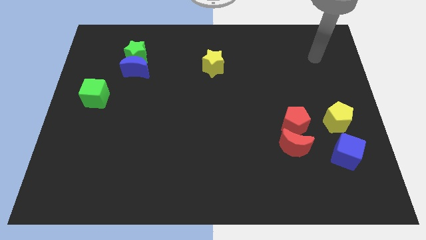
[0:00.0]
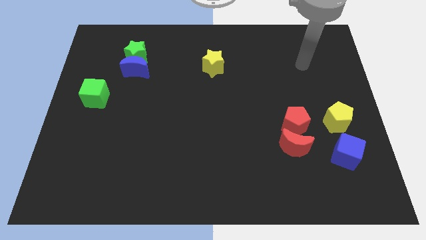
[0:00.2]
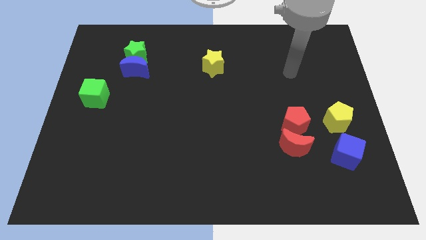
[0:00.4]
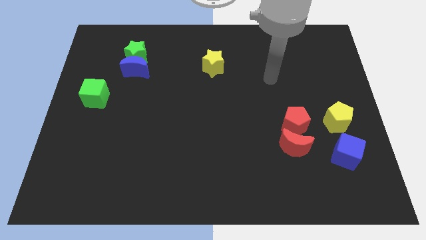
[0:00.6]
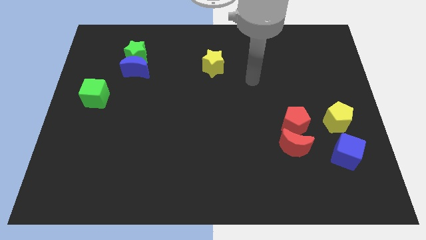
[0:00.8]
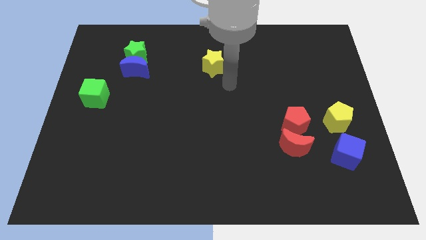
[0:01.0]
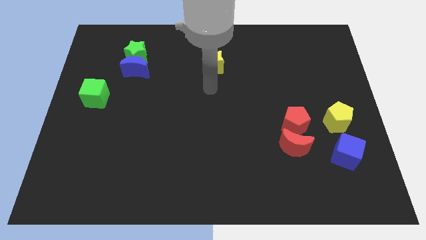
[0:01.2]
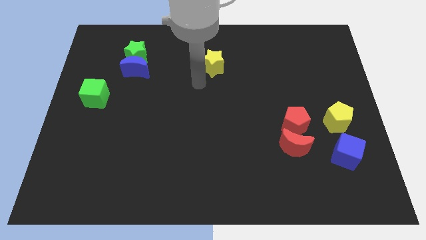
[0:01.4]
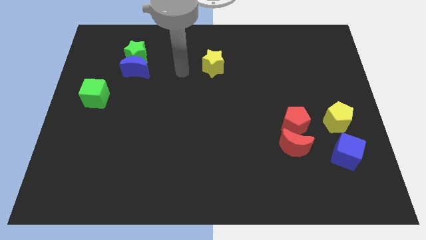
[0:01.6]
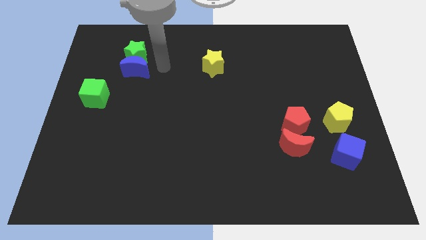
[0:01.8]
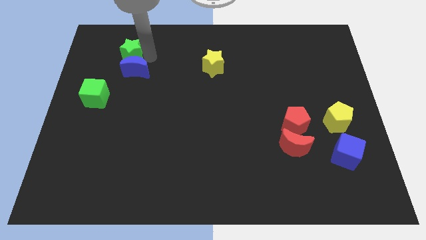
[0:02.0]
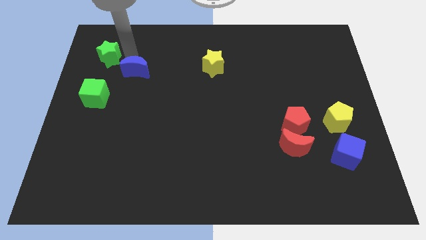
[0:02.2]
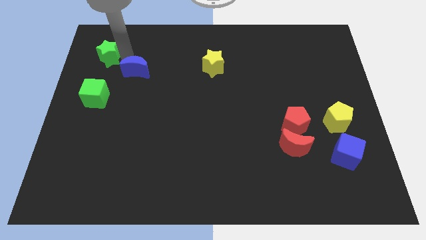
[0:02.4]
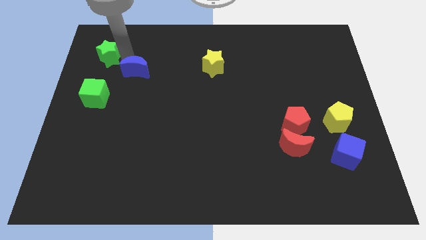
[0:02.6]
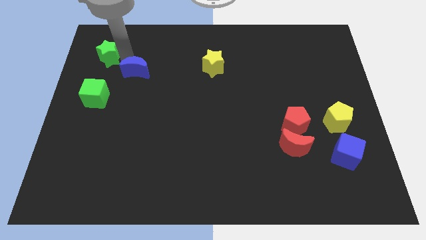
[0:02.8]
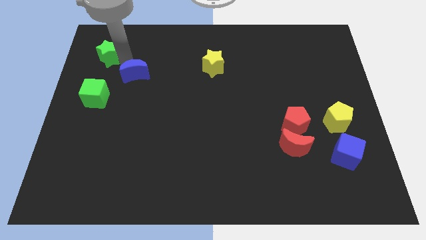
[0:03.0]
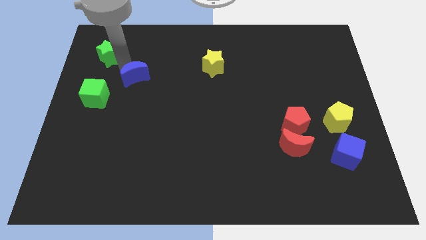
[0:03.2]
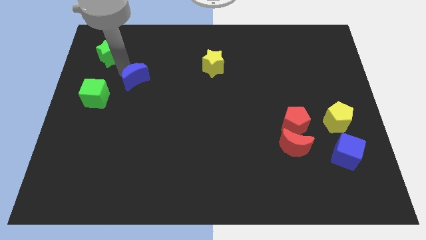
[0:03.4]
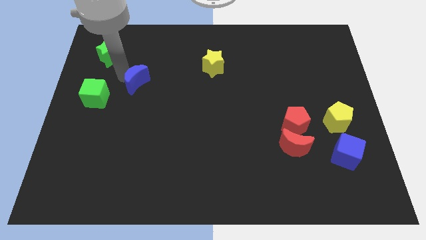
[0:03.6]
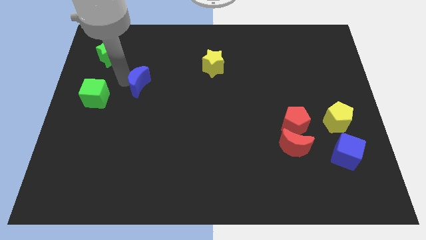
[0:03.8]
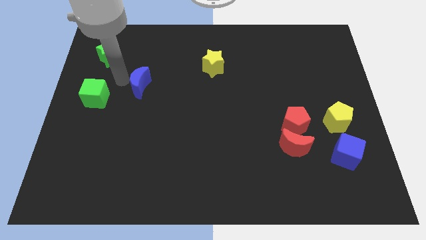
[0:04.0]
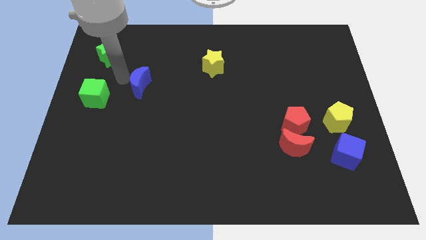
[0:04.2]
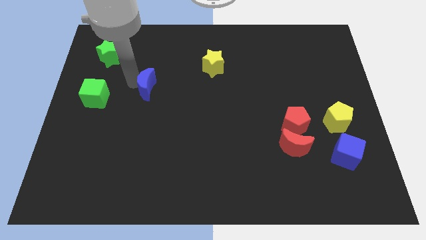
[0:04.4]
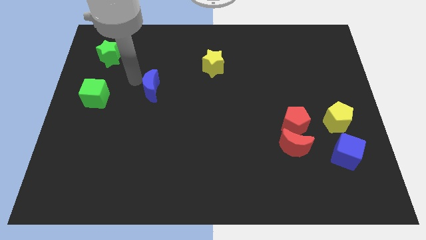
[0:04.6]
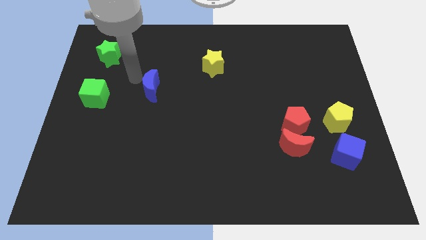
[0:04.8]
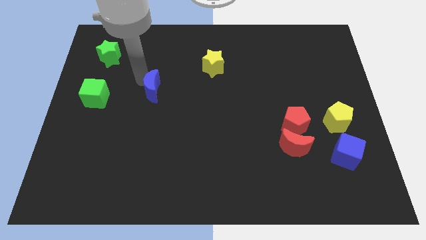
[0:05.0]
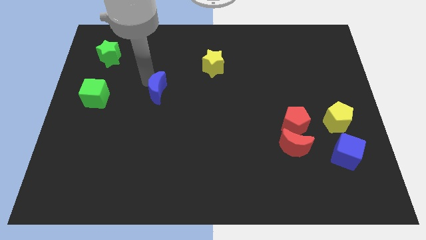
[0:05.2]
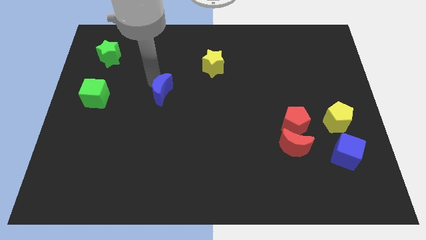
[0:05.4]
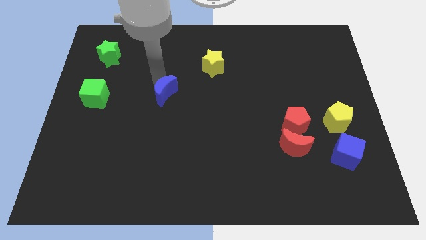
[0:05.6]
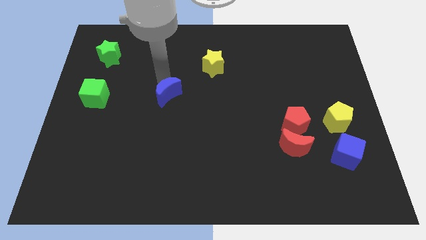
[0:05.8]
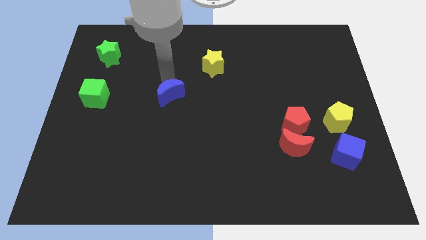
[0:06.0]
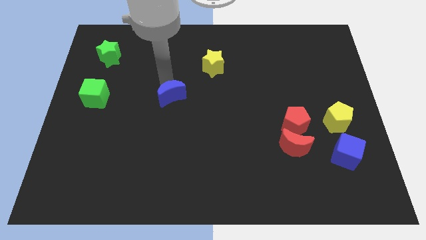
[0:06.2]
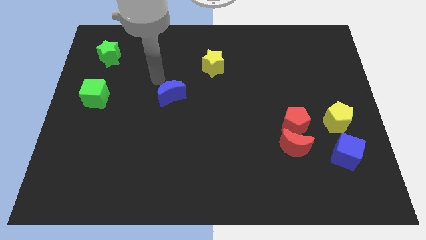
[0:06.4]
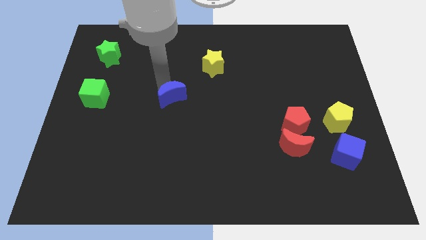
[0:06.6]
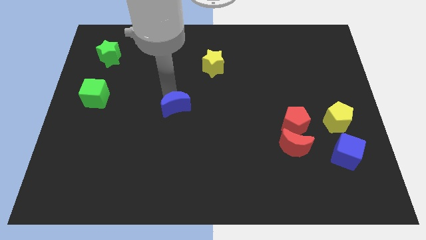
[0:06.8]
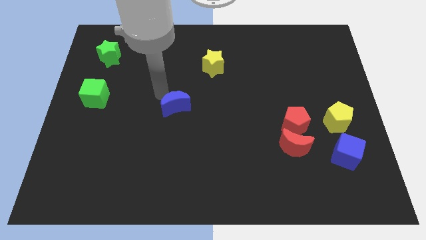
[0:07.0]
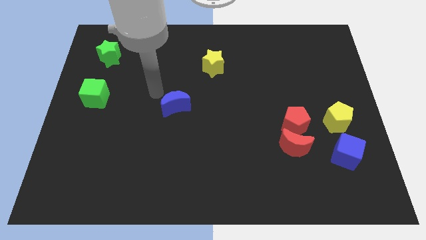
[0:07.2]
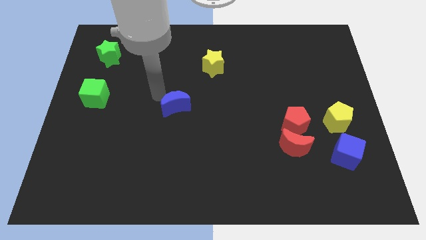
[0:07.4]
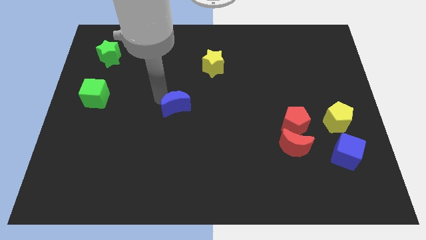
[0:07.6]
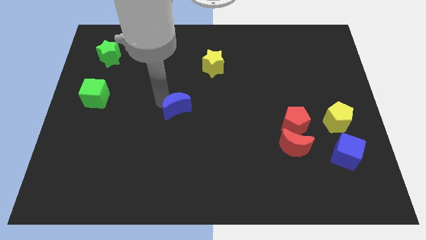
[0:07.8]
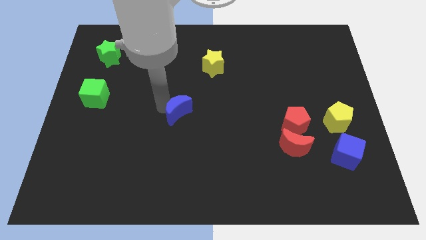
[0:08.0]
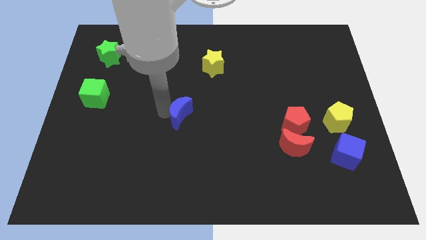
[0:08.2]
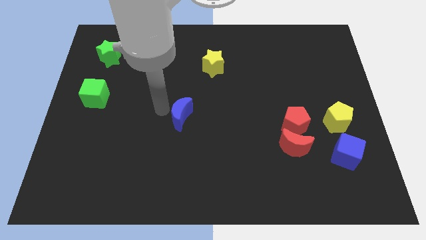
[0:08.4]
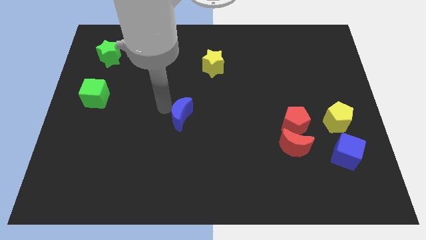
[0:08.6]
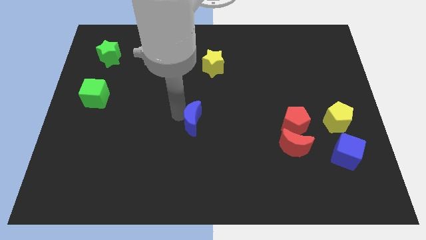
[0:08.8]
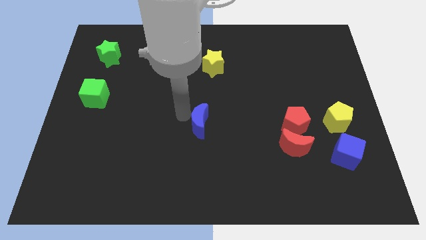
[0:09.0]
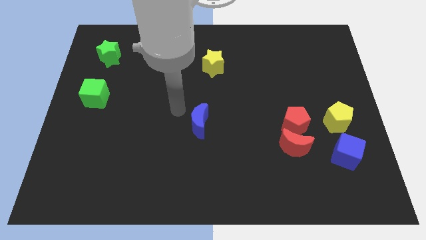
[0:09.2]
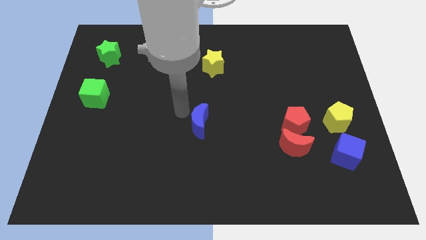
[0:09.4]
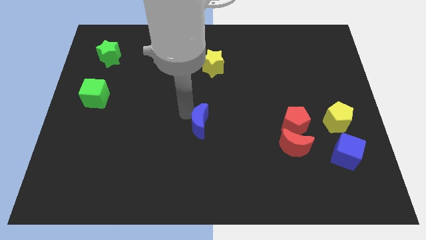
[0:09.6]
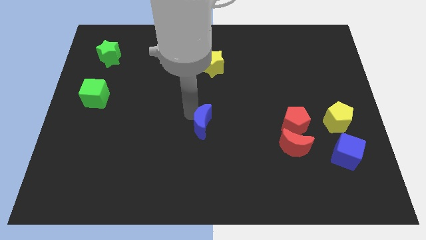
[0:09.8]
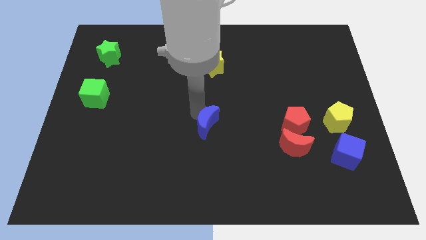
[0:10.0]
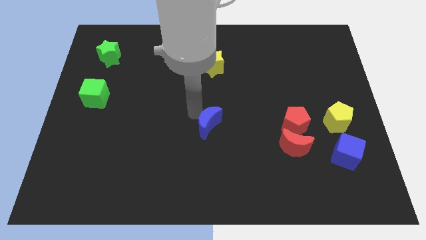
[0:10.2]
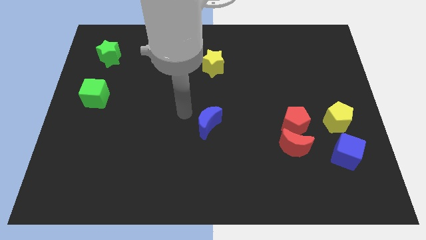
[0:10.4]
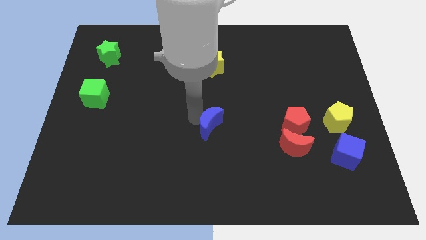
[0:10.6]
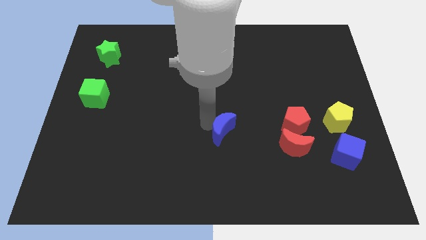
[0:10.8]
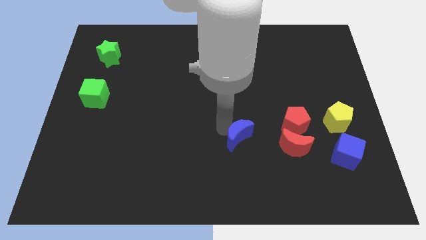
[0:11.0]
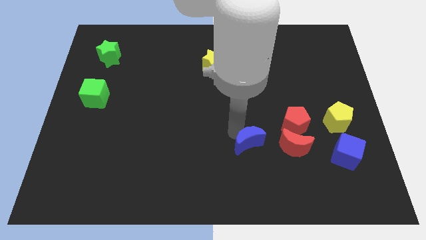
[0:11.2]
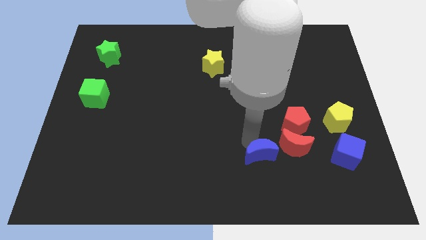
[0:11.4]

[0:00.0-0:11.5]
move the blue moon to the bottom left of the red moon

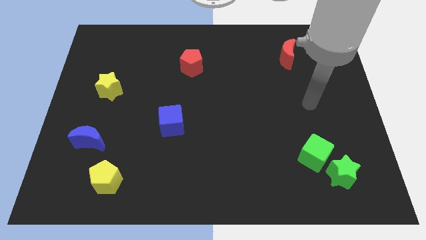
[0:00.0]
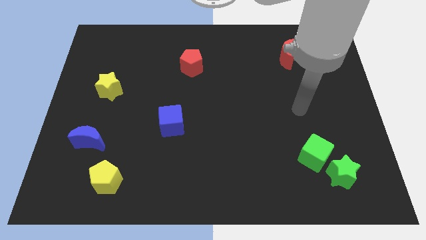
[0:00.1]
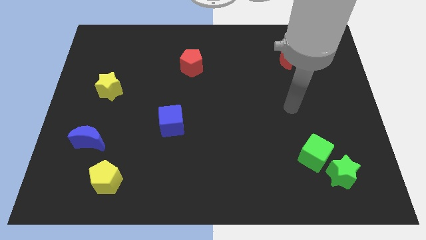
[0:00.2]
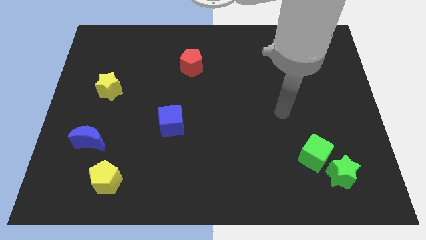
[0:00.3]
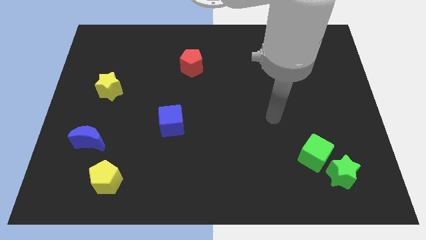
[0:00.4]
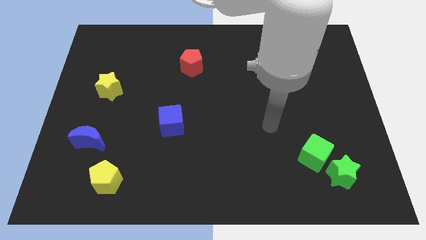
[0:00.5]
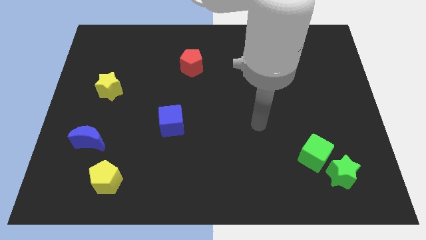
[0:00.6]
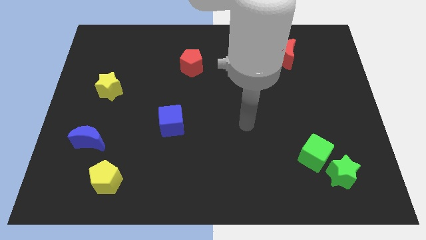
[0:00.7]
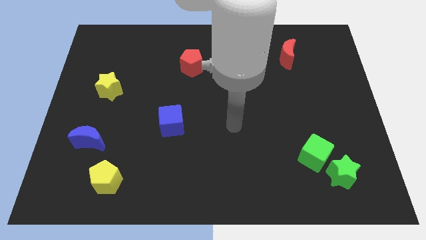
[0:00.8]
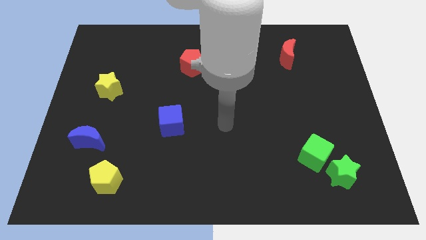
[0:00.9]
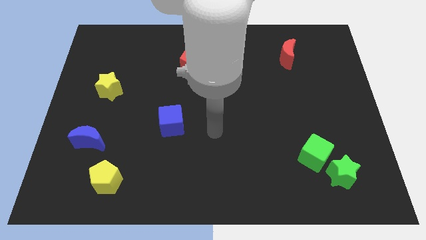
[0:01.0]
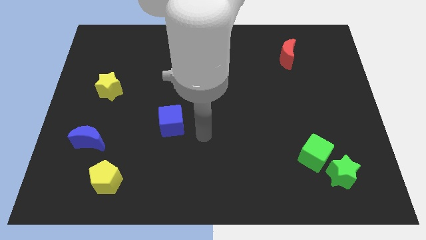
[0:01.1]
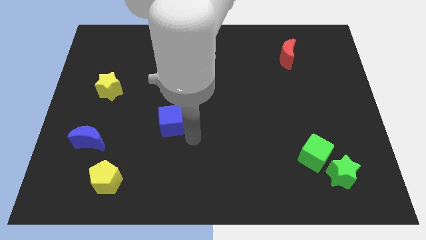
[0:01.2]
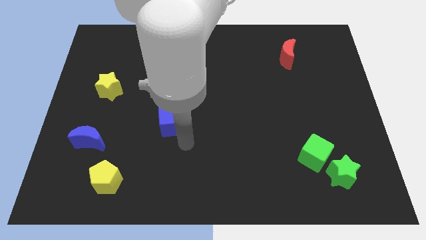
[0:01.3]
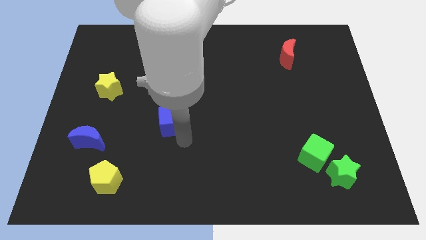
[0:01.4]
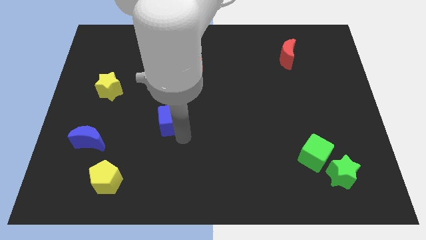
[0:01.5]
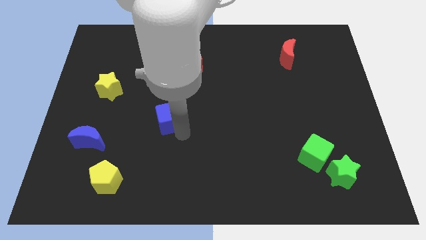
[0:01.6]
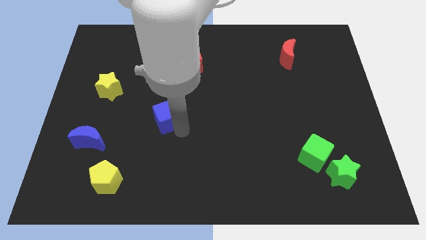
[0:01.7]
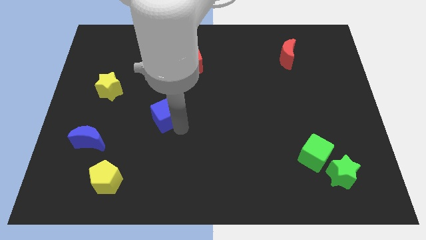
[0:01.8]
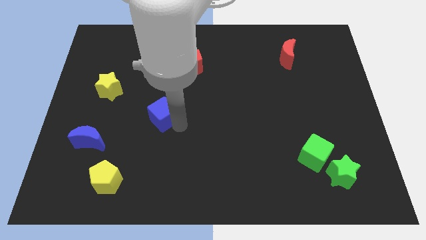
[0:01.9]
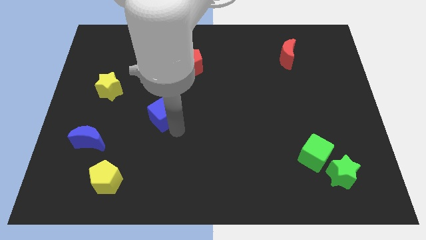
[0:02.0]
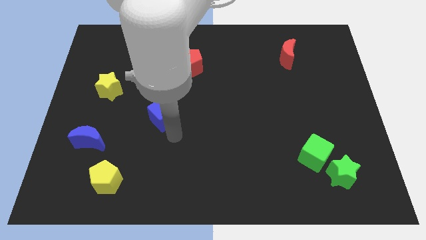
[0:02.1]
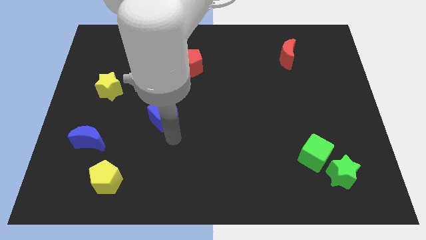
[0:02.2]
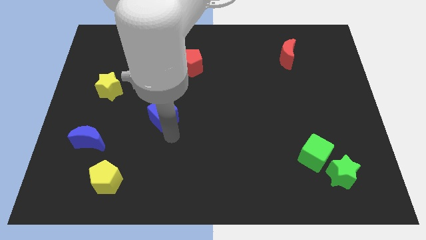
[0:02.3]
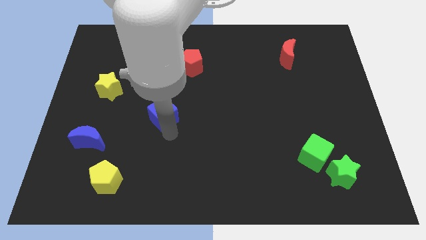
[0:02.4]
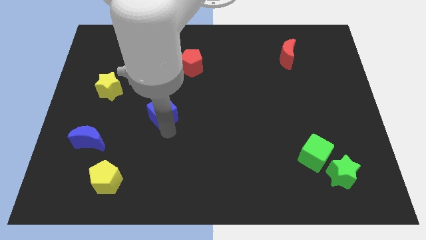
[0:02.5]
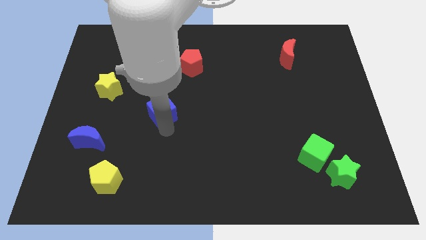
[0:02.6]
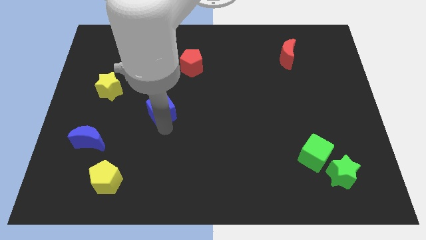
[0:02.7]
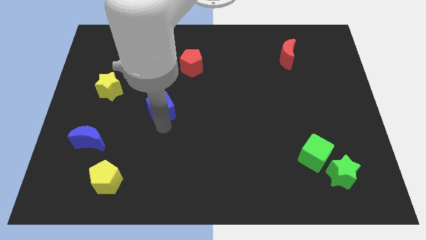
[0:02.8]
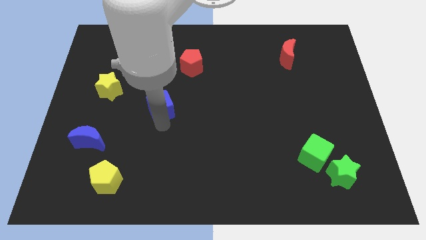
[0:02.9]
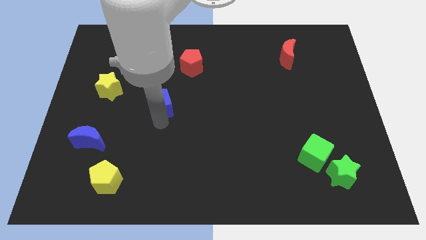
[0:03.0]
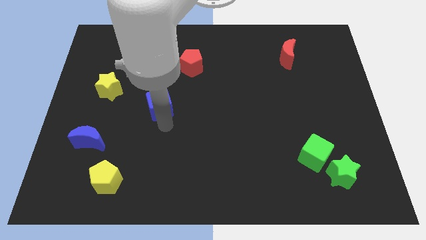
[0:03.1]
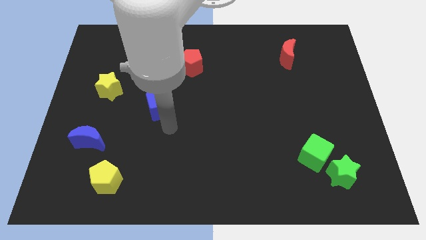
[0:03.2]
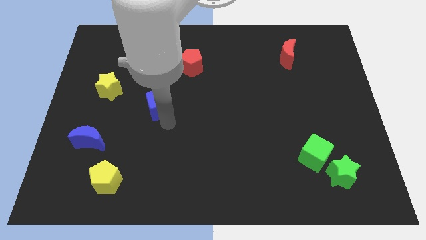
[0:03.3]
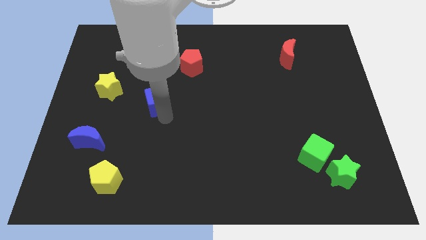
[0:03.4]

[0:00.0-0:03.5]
move the blue cube just right of the yellow star
